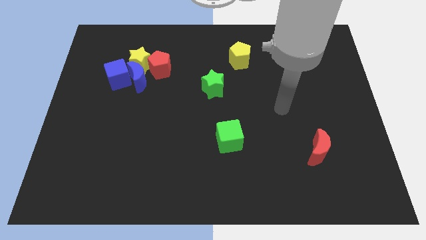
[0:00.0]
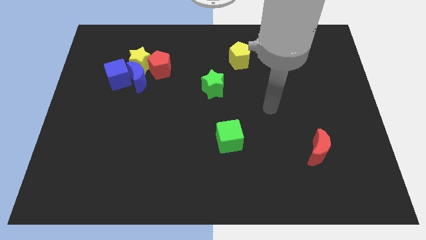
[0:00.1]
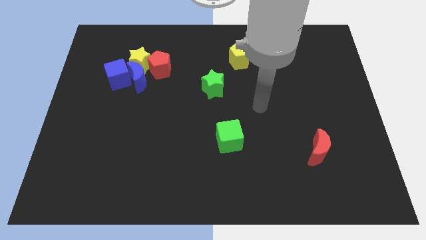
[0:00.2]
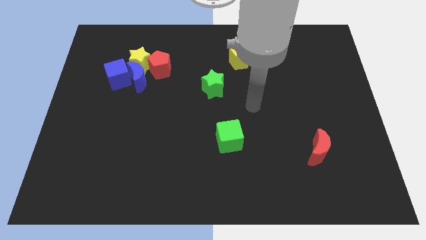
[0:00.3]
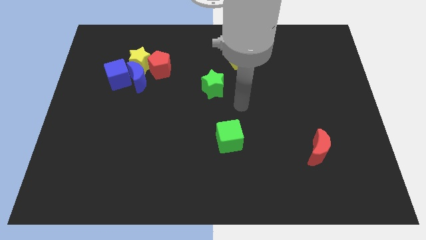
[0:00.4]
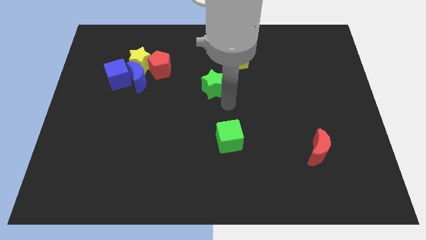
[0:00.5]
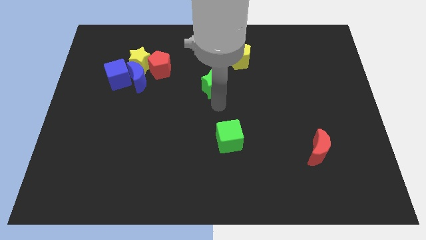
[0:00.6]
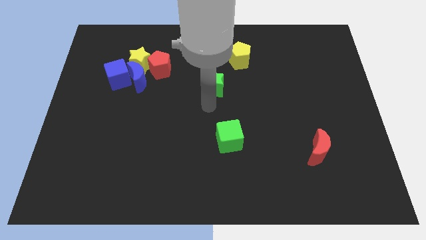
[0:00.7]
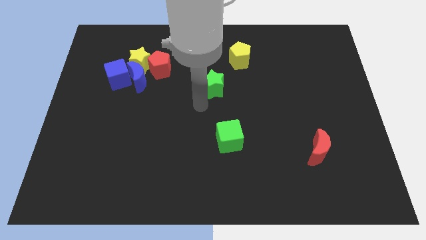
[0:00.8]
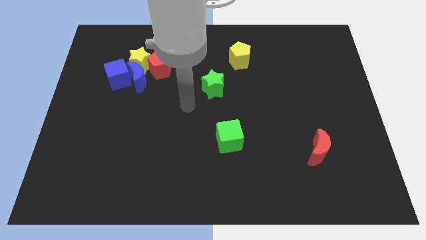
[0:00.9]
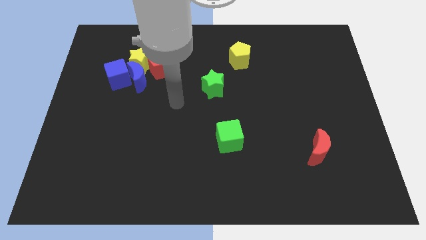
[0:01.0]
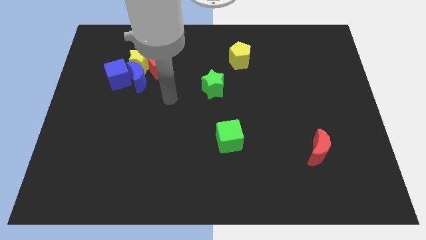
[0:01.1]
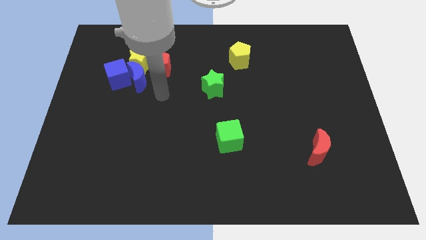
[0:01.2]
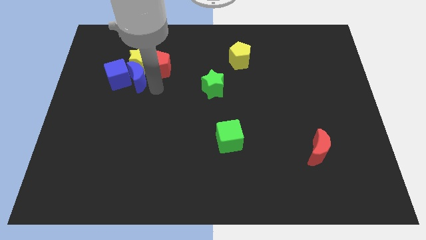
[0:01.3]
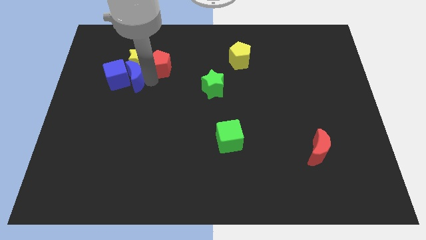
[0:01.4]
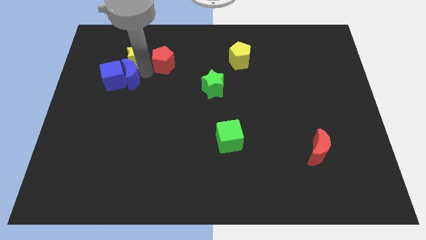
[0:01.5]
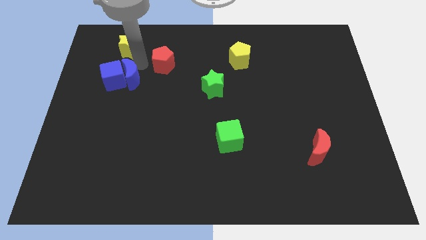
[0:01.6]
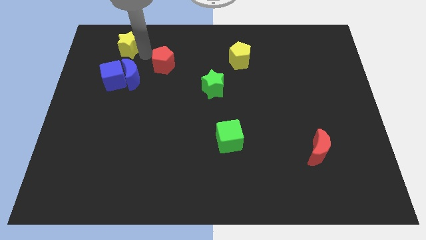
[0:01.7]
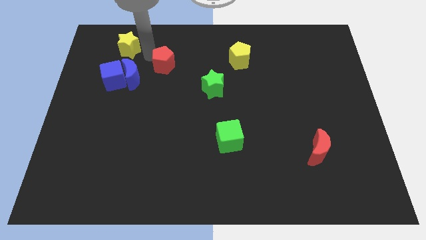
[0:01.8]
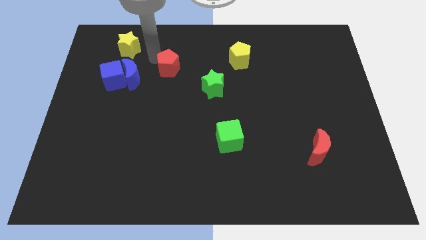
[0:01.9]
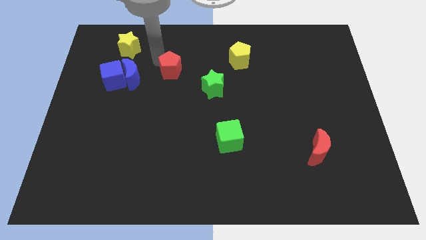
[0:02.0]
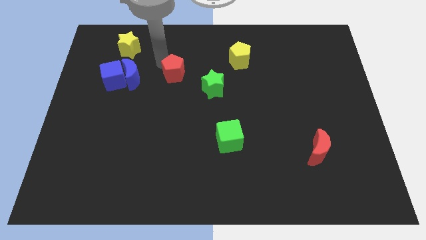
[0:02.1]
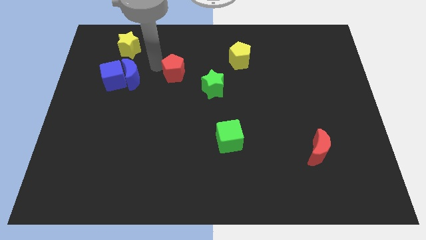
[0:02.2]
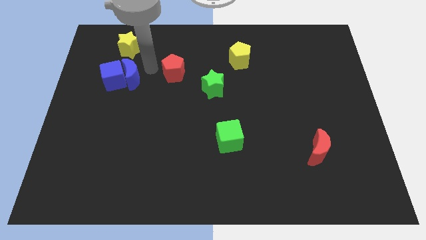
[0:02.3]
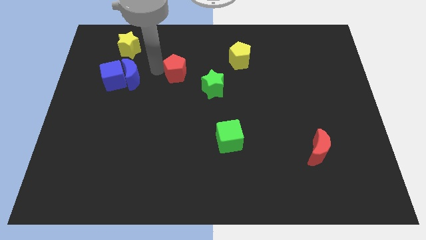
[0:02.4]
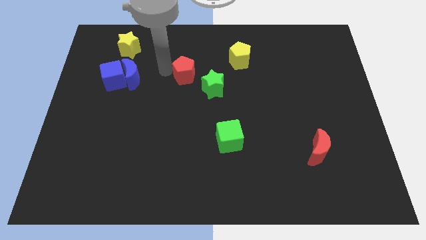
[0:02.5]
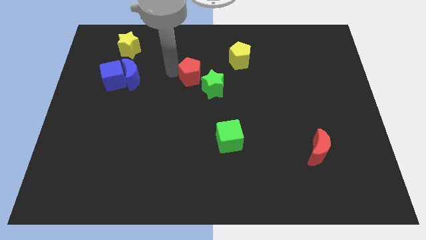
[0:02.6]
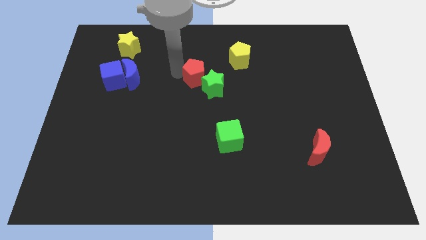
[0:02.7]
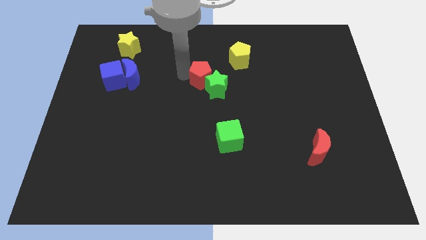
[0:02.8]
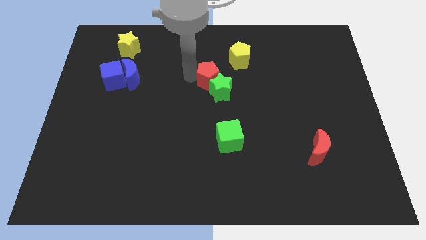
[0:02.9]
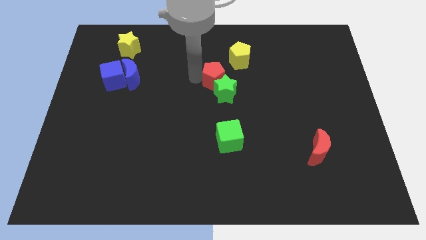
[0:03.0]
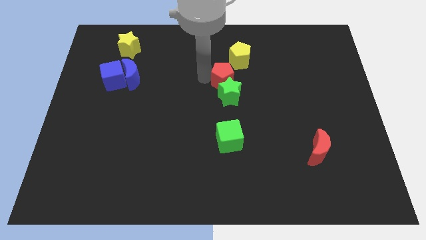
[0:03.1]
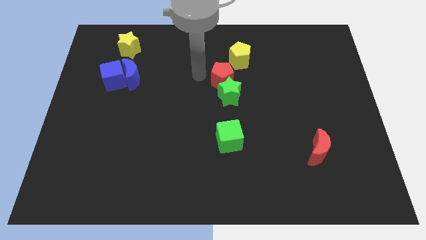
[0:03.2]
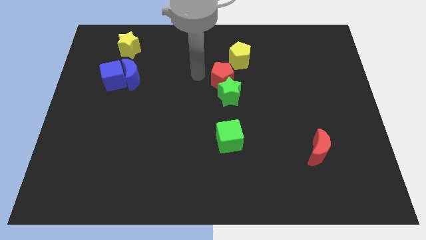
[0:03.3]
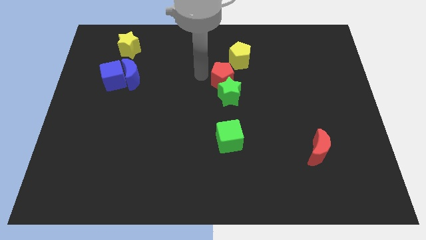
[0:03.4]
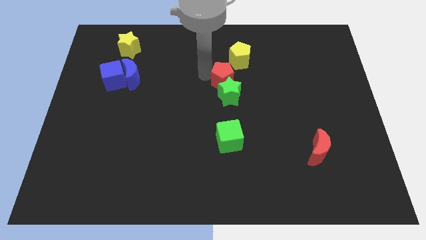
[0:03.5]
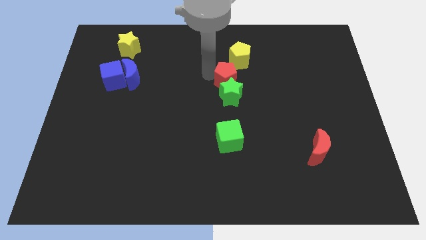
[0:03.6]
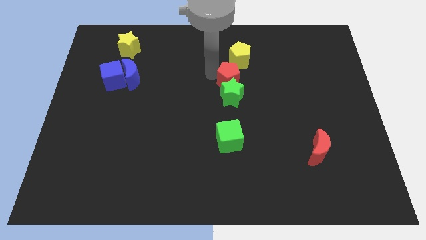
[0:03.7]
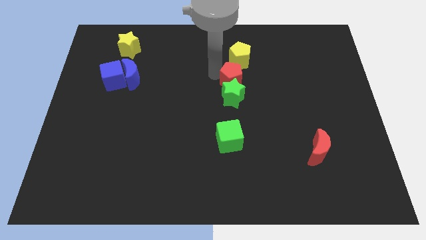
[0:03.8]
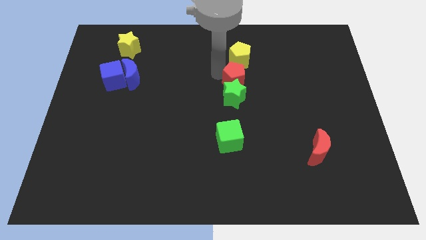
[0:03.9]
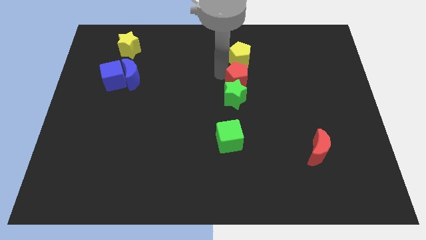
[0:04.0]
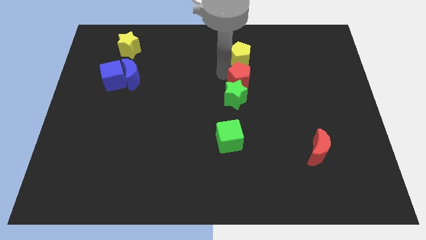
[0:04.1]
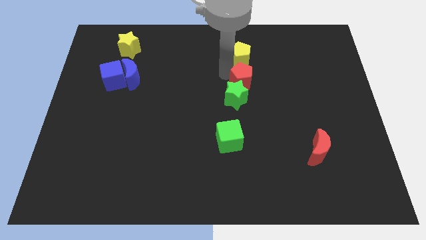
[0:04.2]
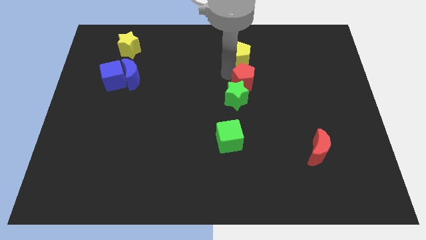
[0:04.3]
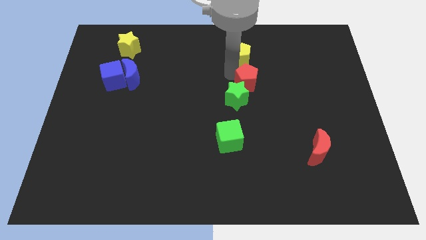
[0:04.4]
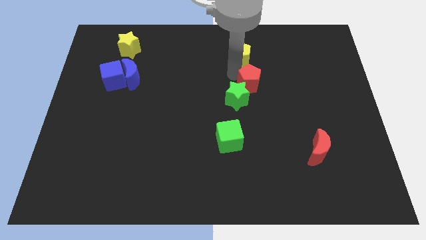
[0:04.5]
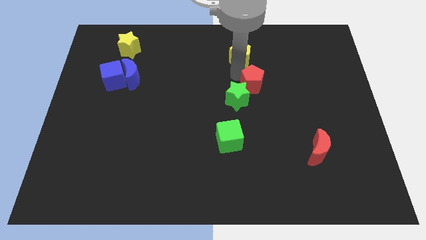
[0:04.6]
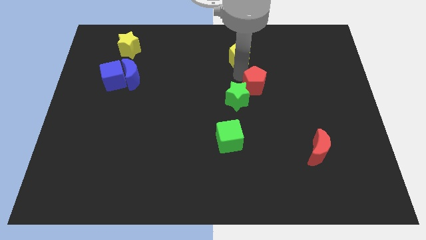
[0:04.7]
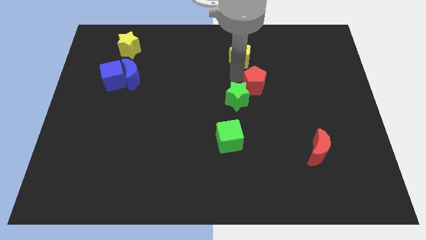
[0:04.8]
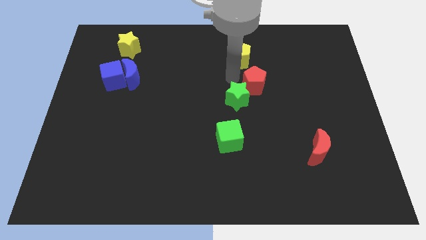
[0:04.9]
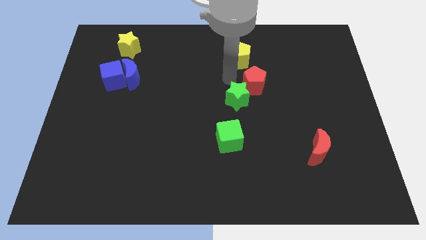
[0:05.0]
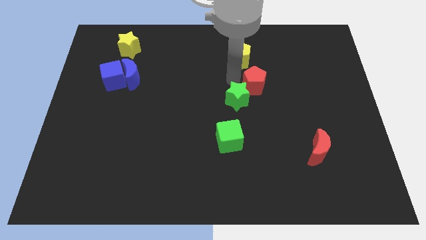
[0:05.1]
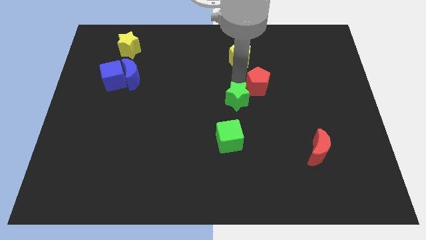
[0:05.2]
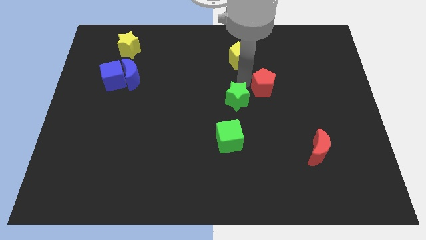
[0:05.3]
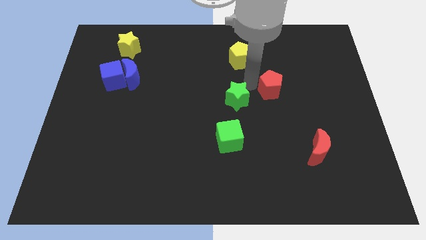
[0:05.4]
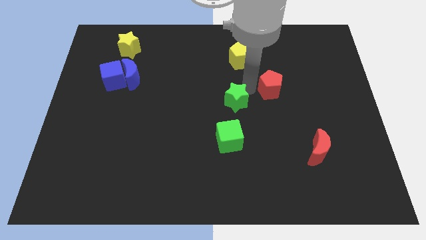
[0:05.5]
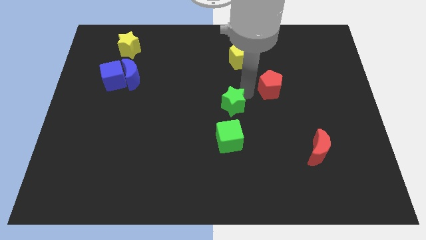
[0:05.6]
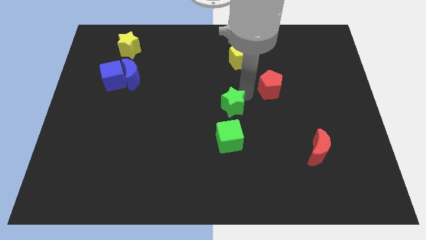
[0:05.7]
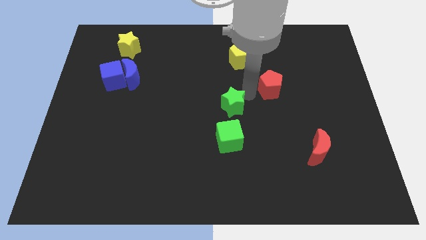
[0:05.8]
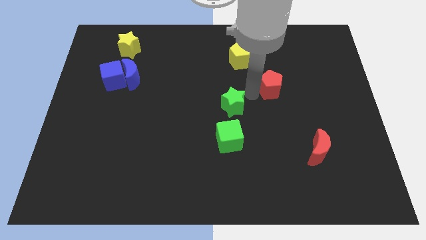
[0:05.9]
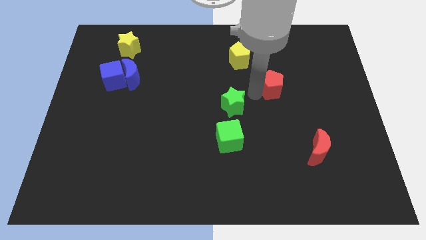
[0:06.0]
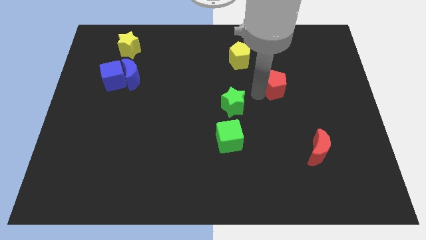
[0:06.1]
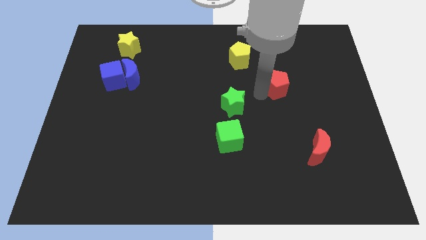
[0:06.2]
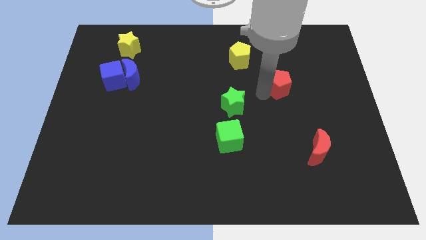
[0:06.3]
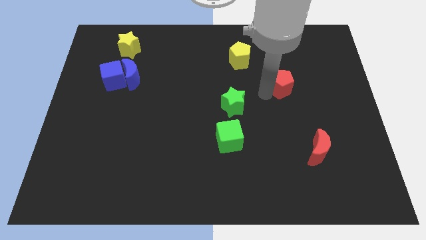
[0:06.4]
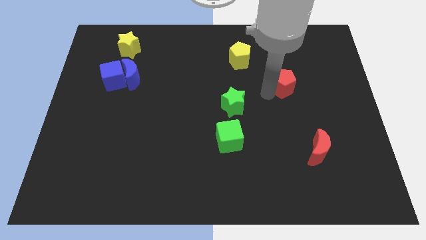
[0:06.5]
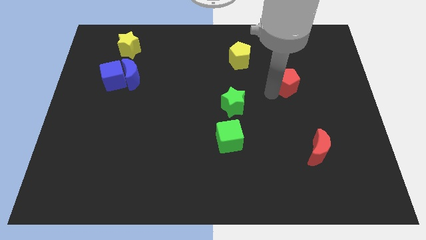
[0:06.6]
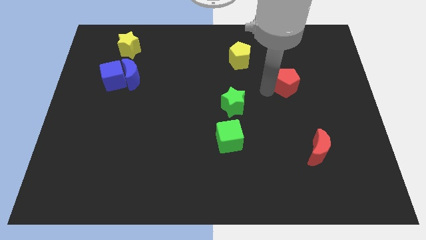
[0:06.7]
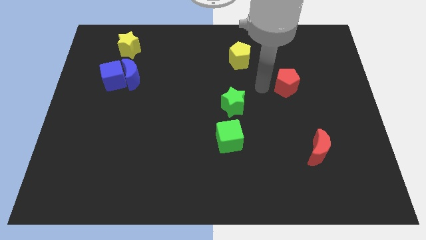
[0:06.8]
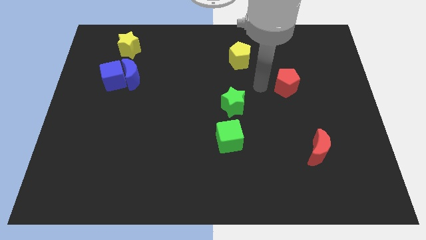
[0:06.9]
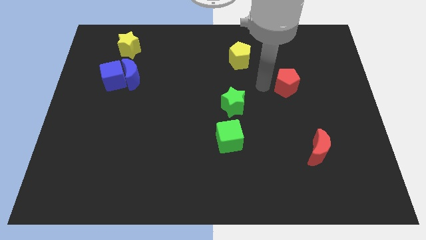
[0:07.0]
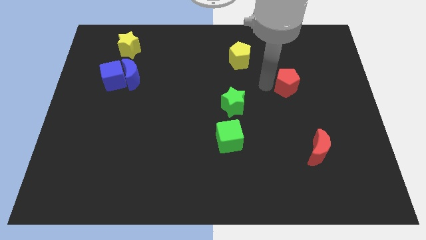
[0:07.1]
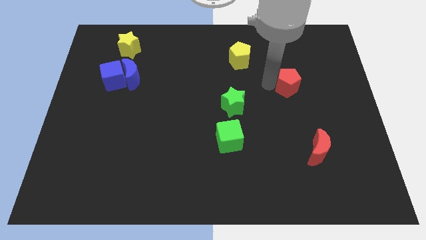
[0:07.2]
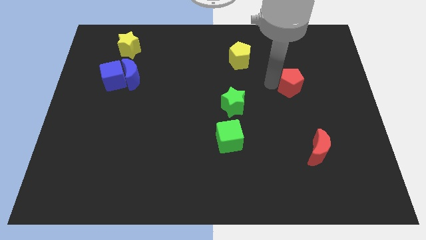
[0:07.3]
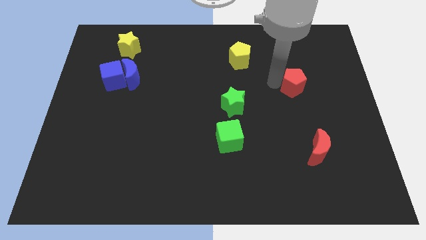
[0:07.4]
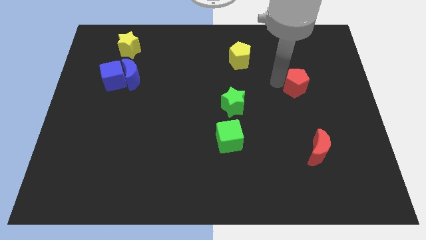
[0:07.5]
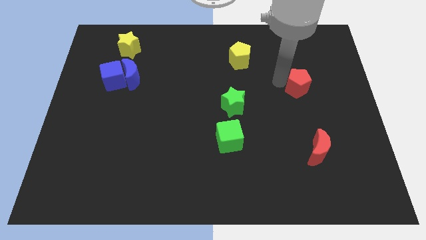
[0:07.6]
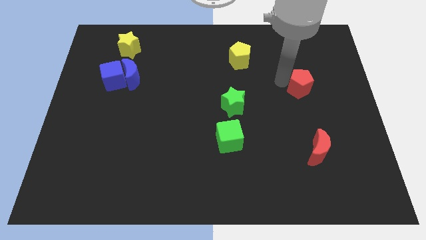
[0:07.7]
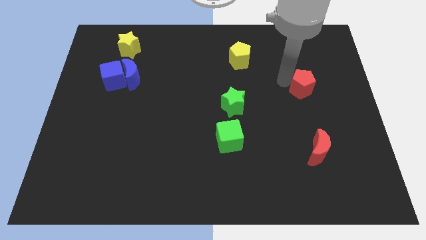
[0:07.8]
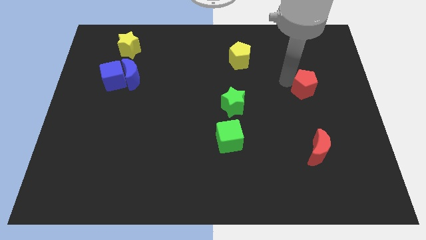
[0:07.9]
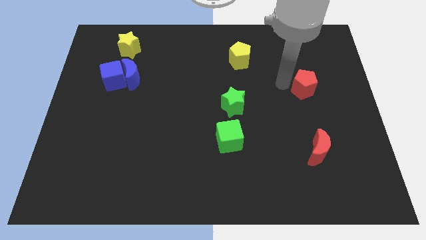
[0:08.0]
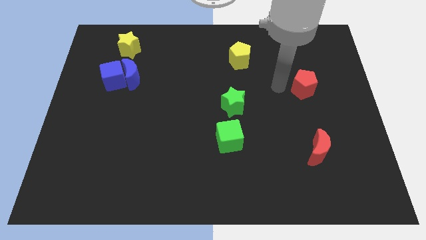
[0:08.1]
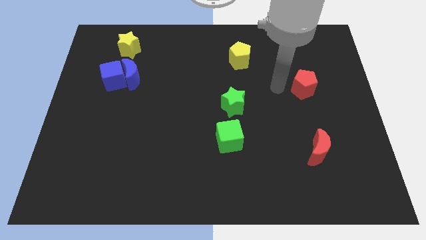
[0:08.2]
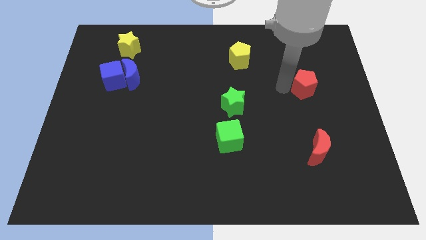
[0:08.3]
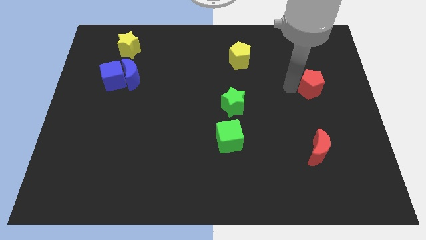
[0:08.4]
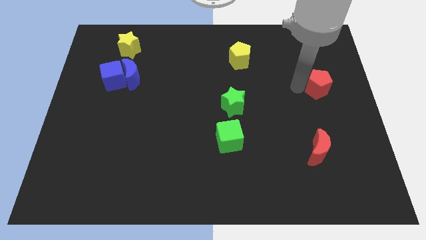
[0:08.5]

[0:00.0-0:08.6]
slide the red pentagon to the center right
